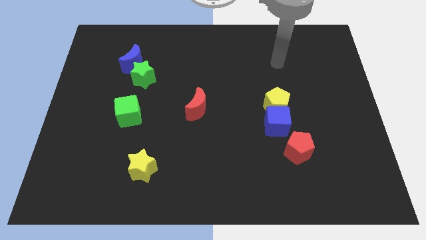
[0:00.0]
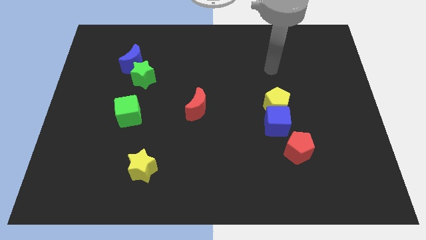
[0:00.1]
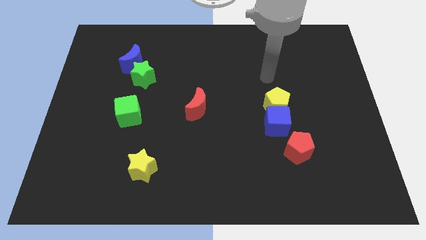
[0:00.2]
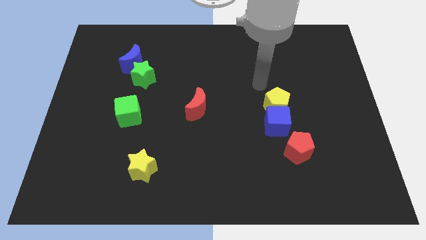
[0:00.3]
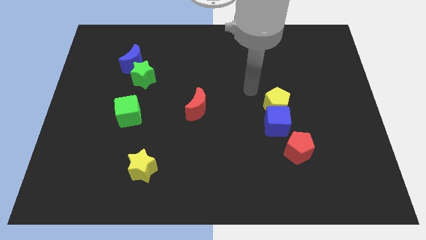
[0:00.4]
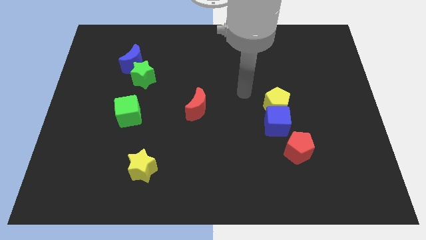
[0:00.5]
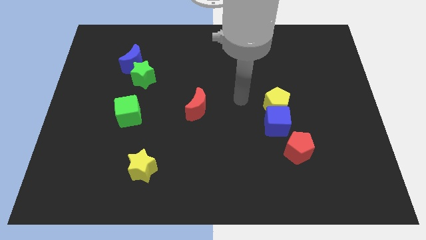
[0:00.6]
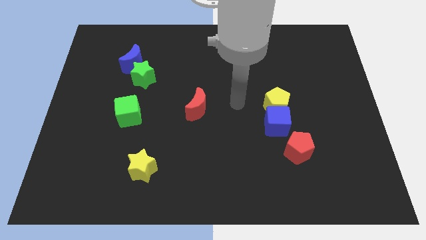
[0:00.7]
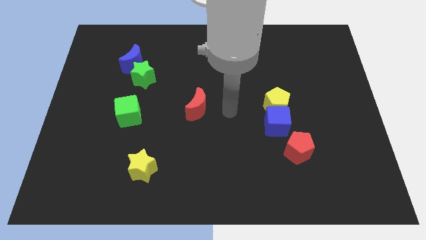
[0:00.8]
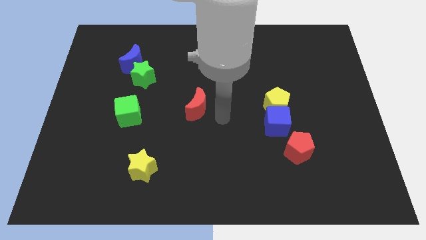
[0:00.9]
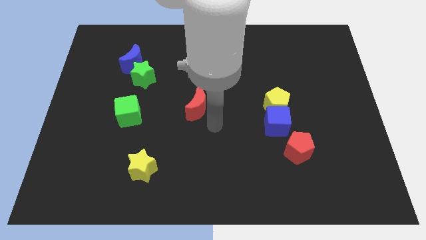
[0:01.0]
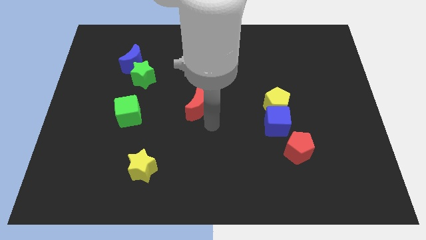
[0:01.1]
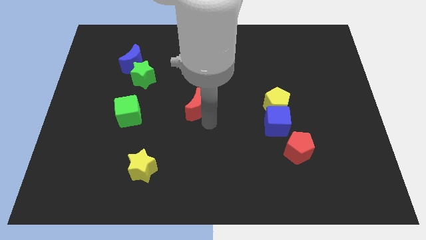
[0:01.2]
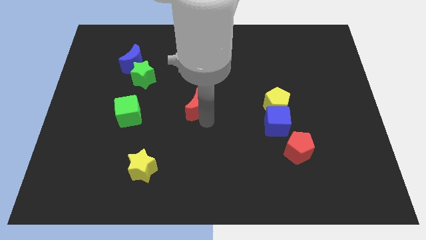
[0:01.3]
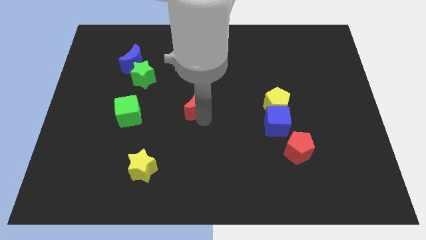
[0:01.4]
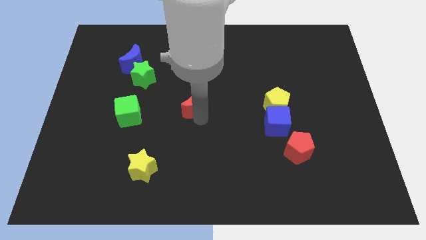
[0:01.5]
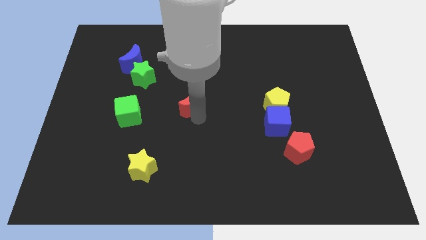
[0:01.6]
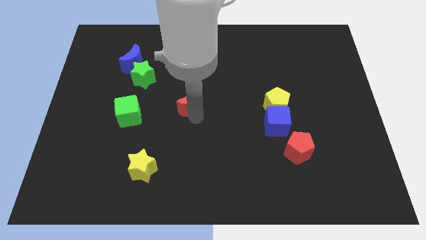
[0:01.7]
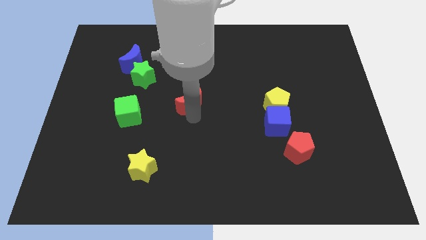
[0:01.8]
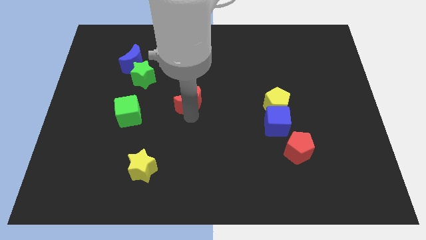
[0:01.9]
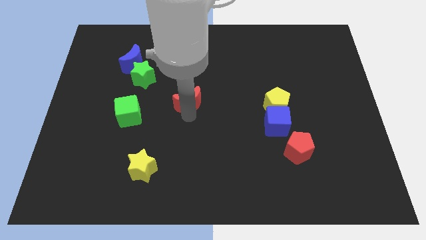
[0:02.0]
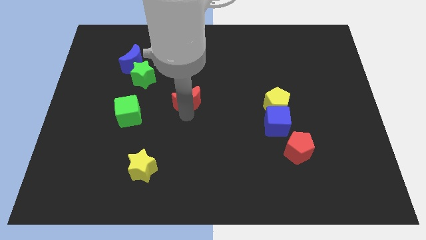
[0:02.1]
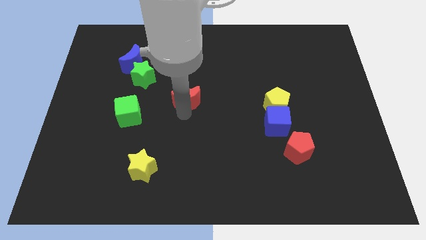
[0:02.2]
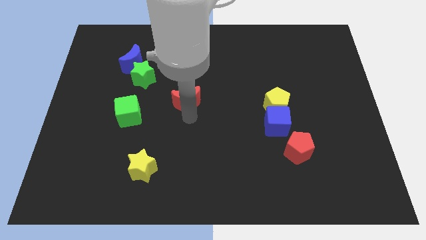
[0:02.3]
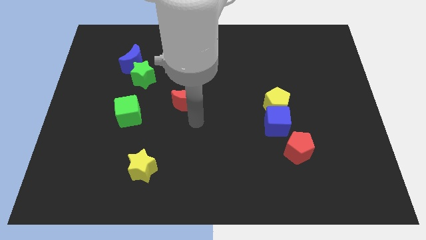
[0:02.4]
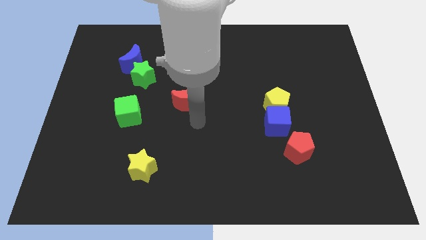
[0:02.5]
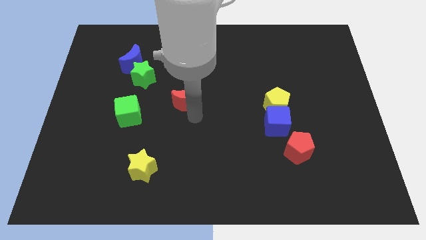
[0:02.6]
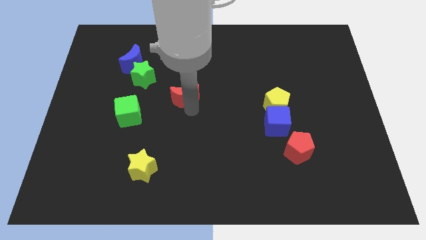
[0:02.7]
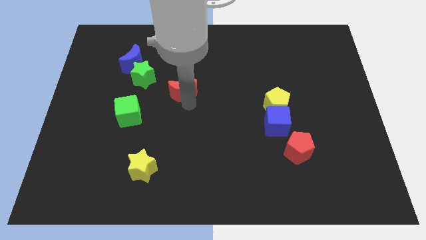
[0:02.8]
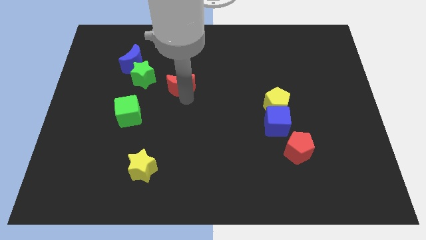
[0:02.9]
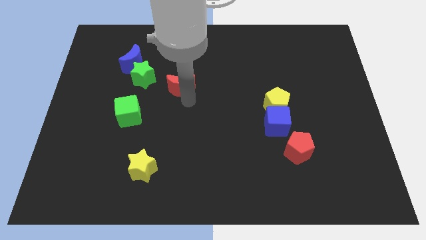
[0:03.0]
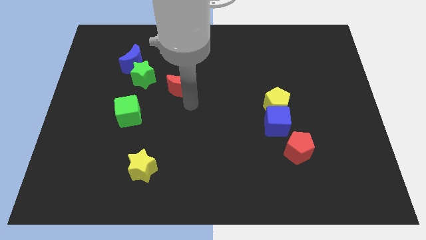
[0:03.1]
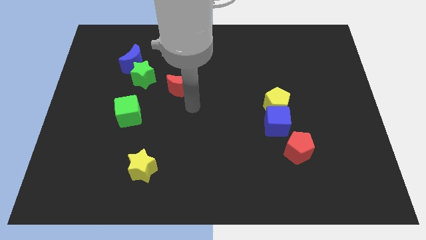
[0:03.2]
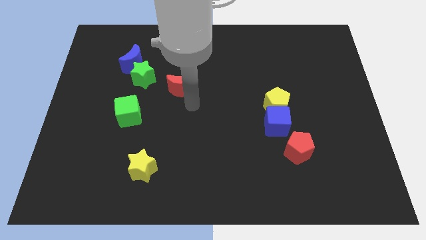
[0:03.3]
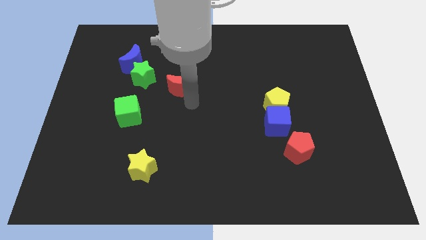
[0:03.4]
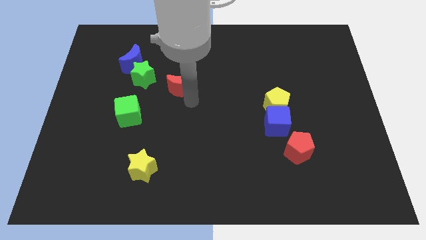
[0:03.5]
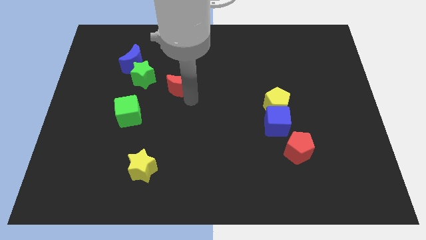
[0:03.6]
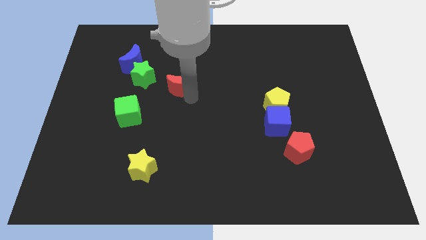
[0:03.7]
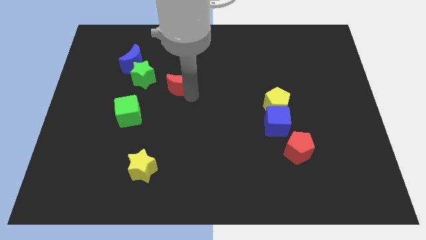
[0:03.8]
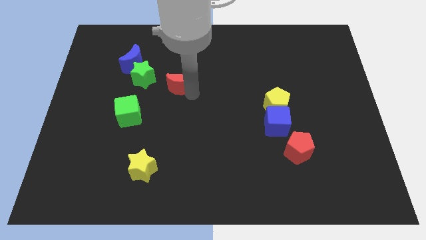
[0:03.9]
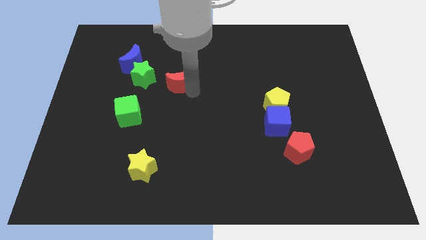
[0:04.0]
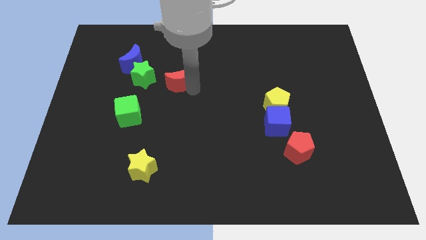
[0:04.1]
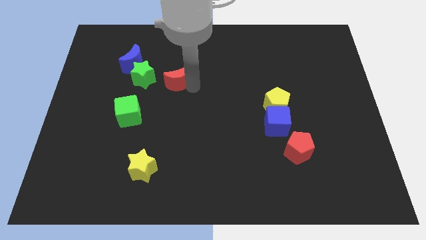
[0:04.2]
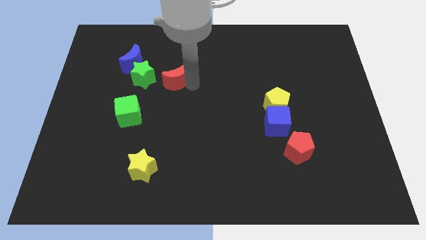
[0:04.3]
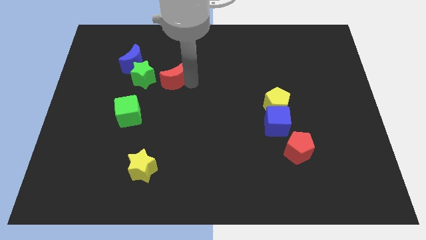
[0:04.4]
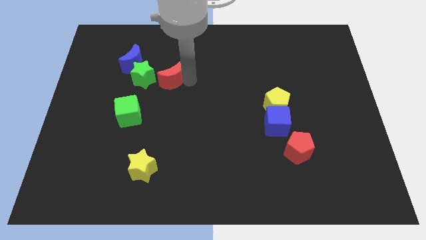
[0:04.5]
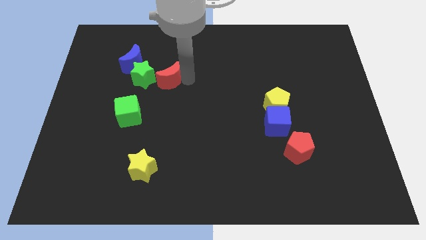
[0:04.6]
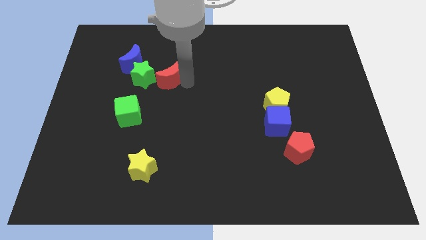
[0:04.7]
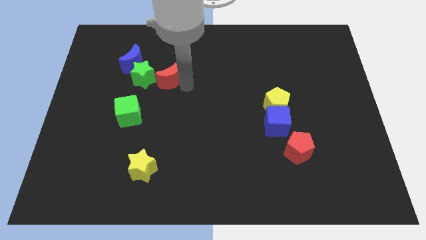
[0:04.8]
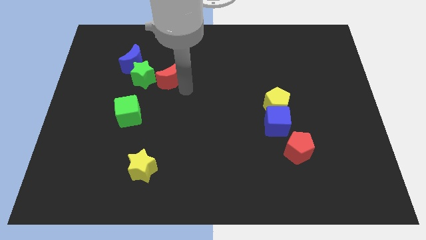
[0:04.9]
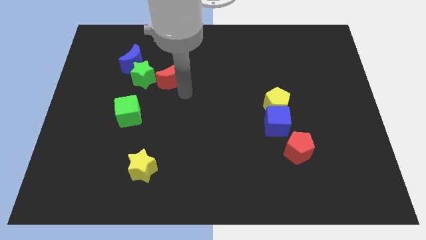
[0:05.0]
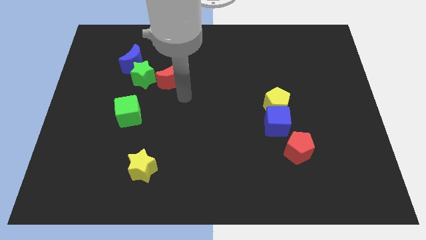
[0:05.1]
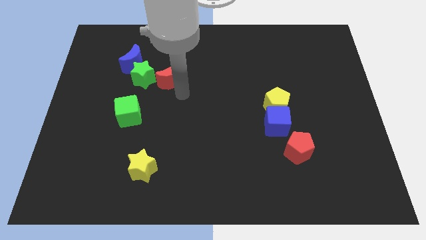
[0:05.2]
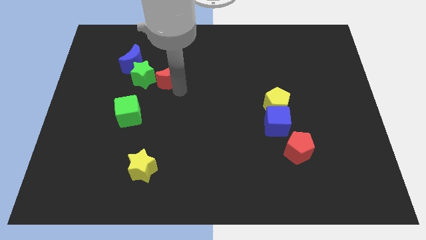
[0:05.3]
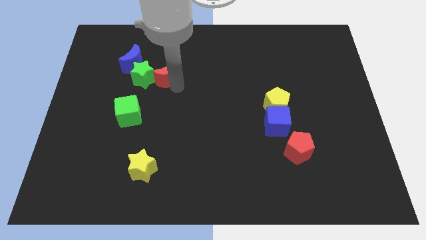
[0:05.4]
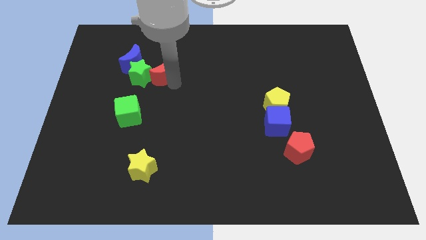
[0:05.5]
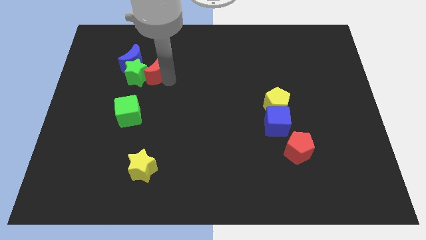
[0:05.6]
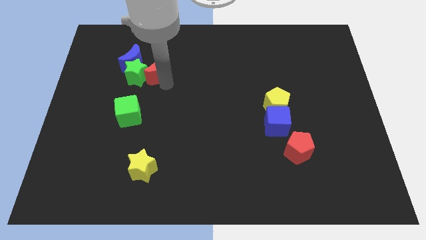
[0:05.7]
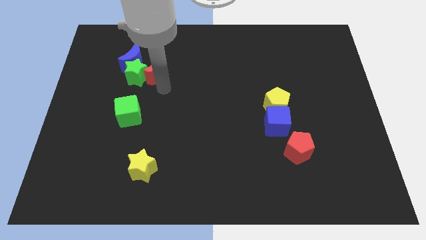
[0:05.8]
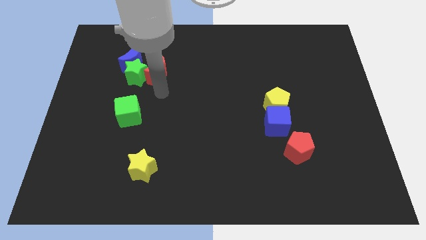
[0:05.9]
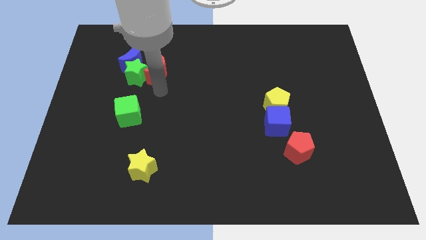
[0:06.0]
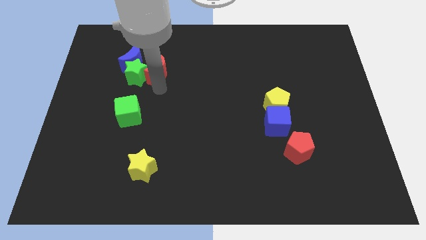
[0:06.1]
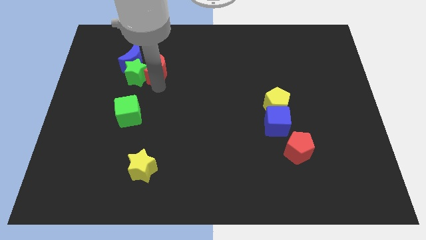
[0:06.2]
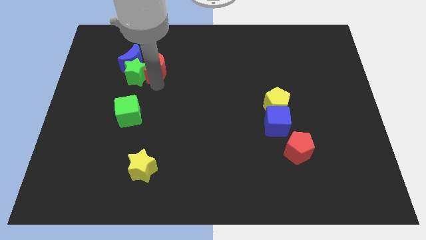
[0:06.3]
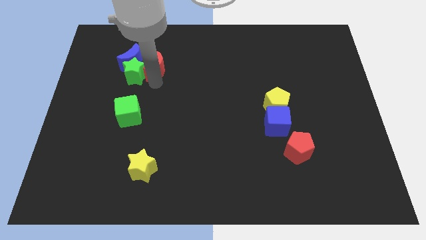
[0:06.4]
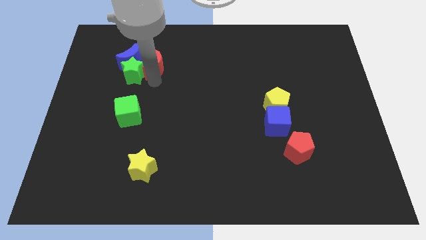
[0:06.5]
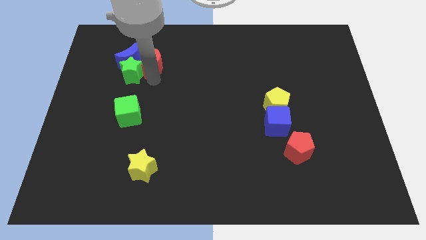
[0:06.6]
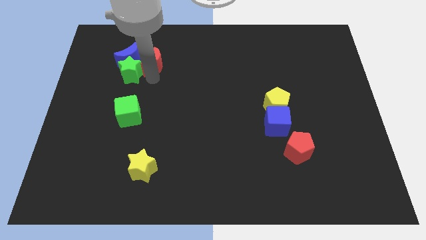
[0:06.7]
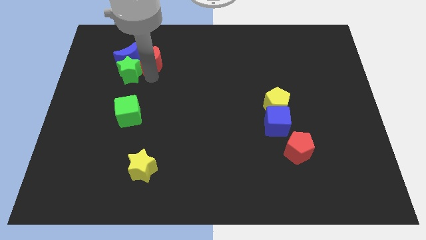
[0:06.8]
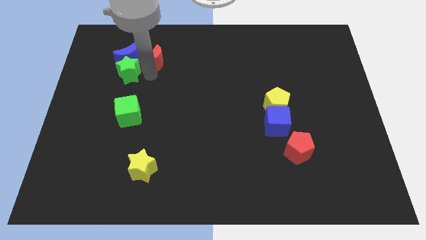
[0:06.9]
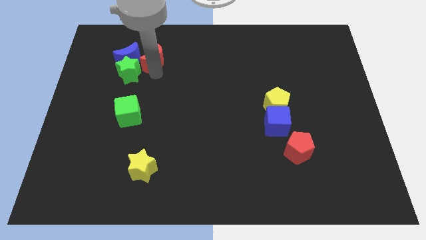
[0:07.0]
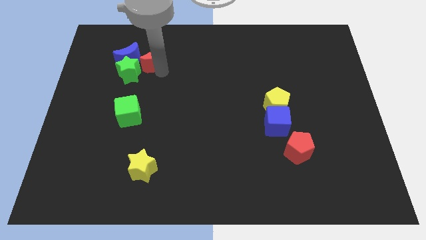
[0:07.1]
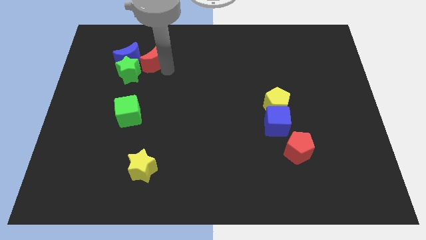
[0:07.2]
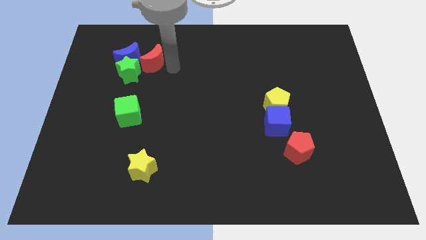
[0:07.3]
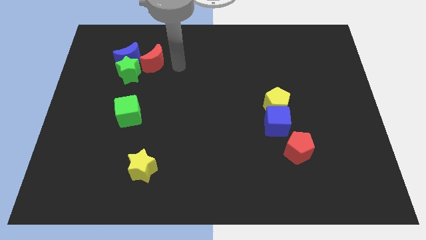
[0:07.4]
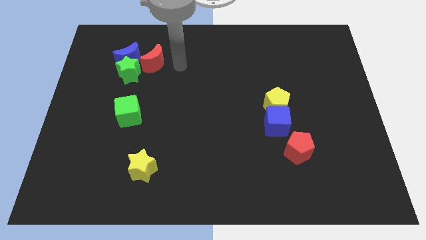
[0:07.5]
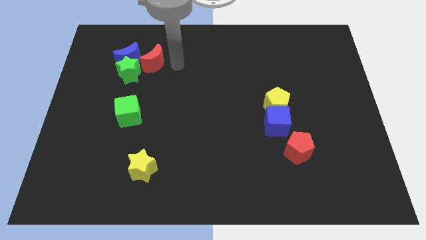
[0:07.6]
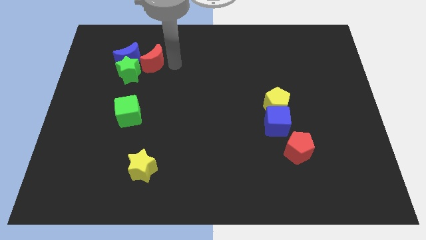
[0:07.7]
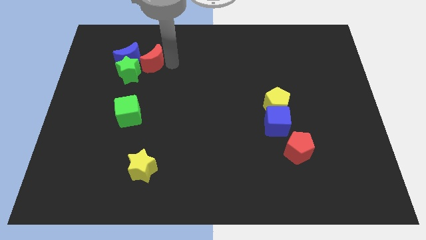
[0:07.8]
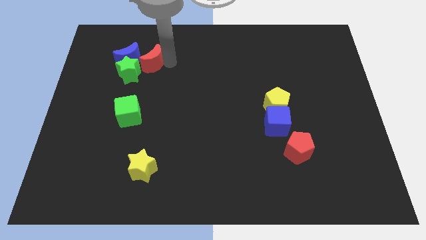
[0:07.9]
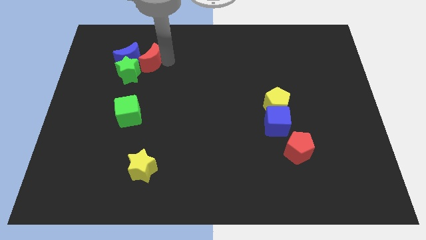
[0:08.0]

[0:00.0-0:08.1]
slide the red moon towards the blue moon
